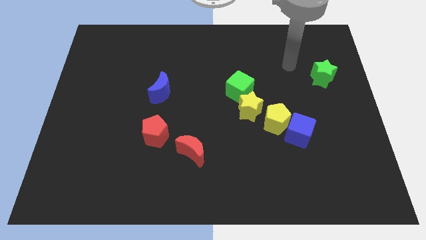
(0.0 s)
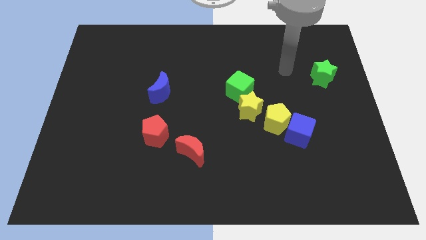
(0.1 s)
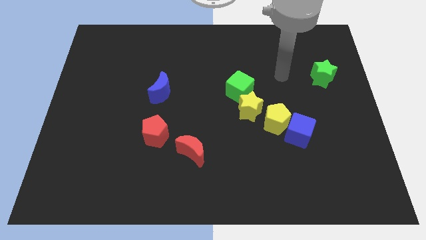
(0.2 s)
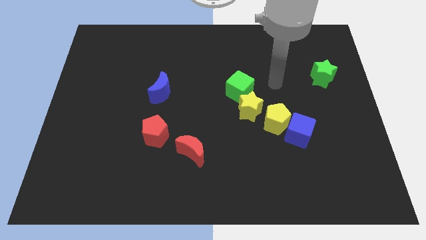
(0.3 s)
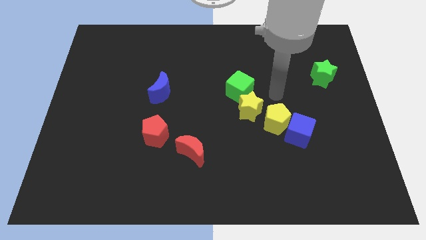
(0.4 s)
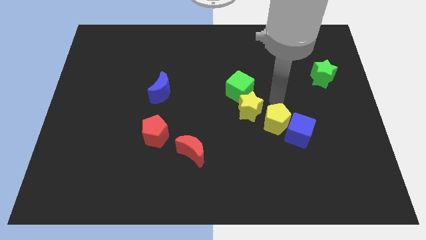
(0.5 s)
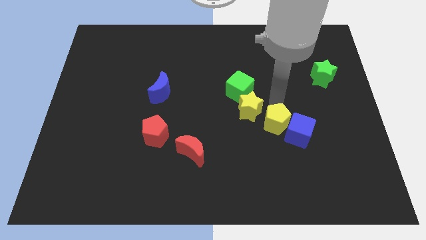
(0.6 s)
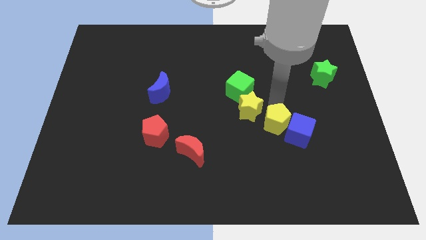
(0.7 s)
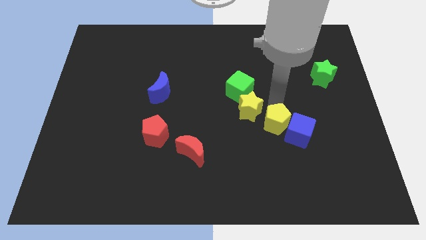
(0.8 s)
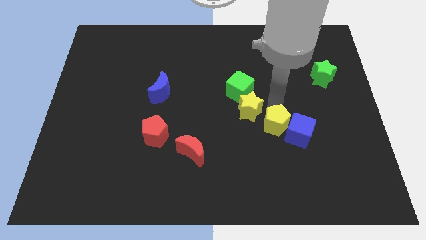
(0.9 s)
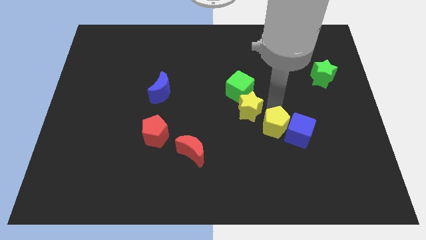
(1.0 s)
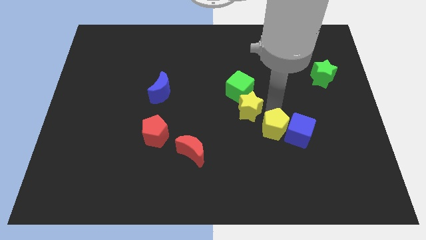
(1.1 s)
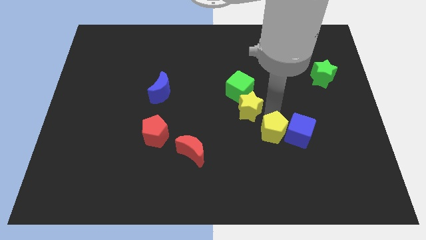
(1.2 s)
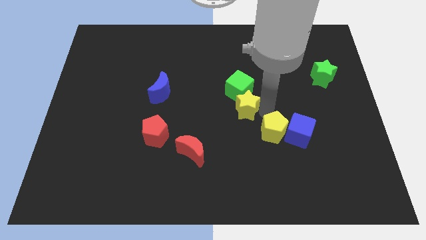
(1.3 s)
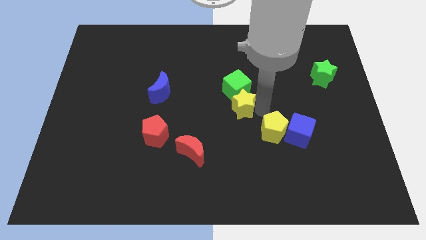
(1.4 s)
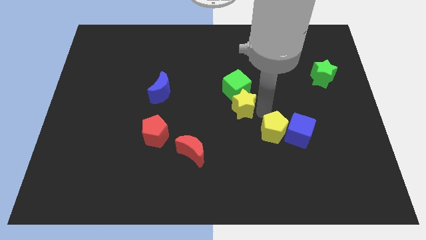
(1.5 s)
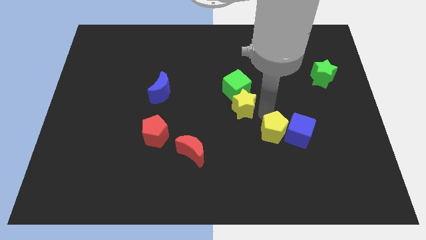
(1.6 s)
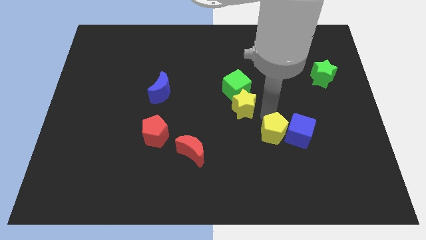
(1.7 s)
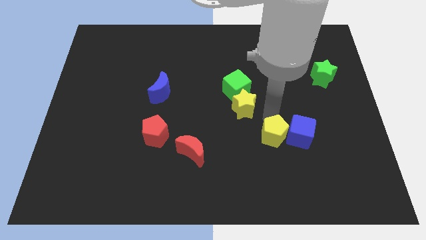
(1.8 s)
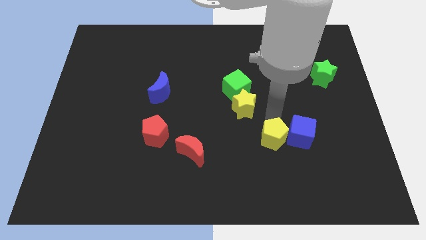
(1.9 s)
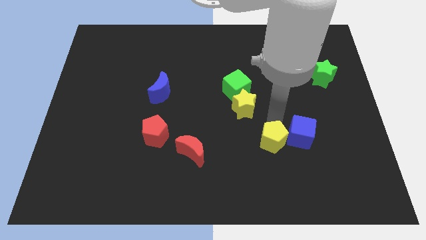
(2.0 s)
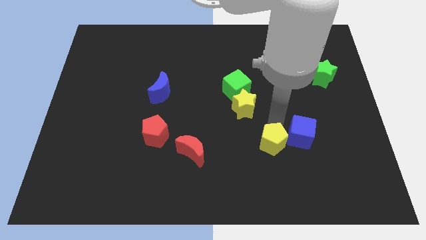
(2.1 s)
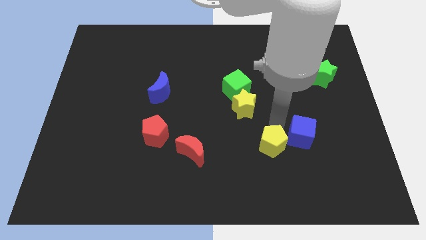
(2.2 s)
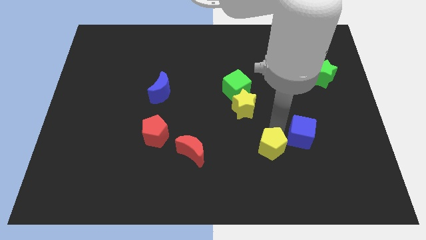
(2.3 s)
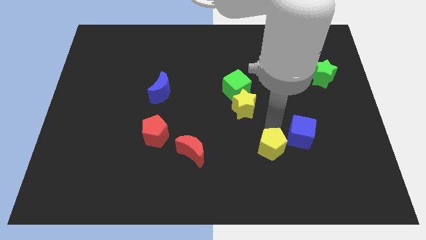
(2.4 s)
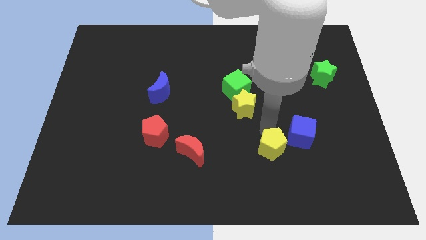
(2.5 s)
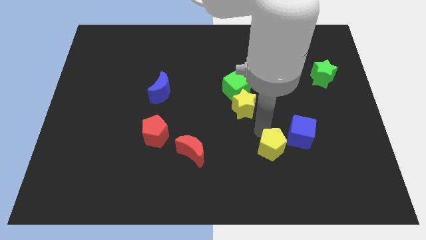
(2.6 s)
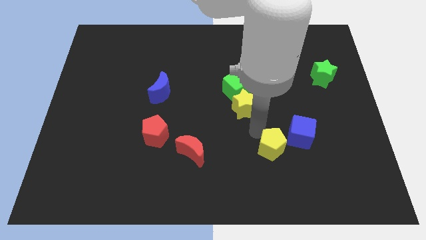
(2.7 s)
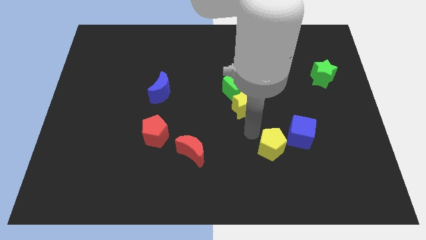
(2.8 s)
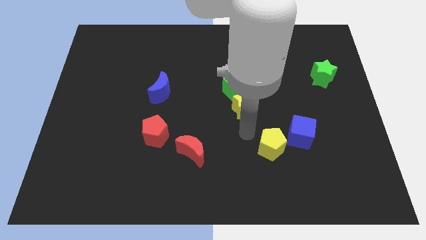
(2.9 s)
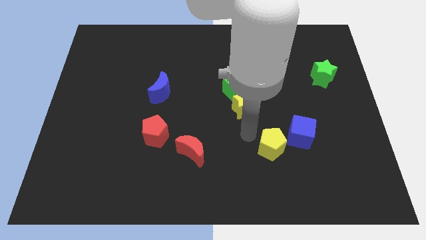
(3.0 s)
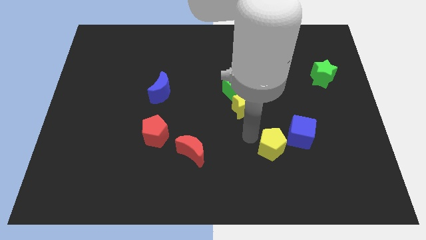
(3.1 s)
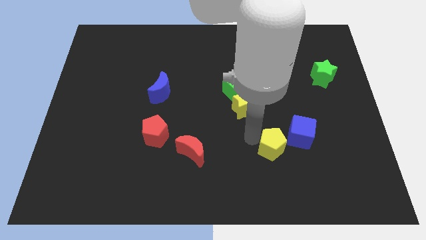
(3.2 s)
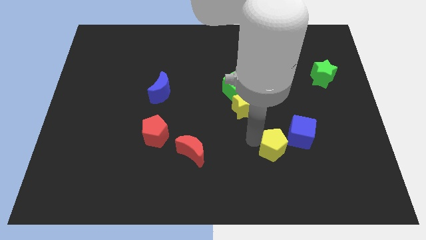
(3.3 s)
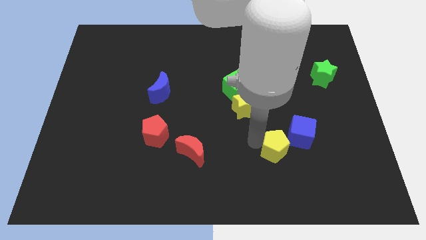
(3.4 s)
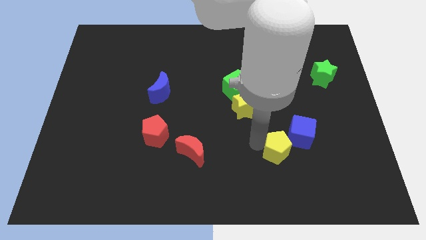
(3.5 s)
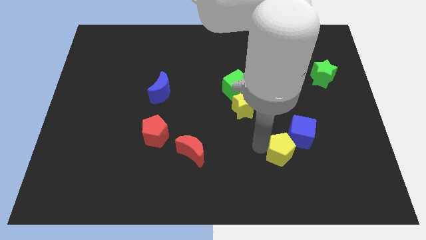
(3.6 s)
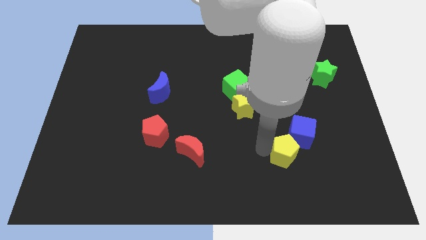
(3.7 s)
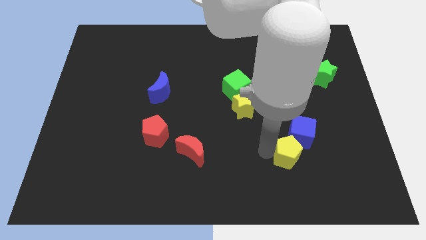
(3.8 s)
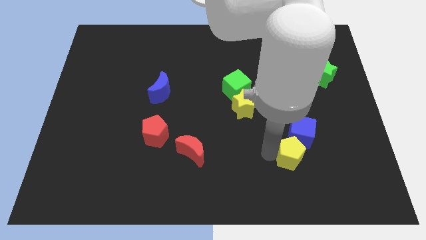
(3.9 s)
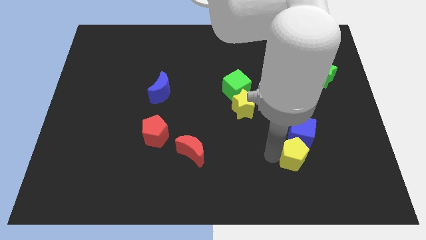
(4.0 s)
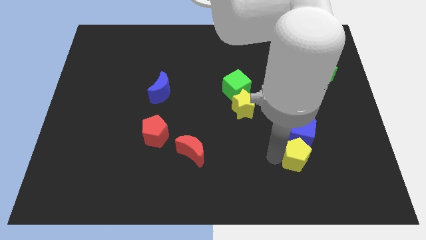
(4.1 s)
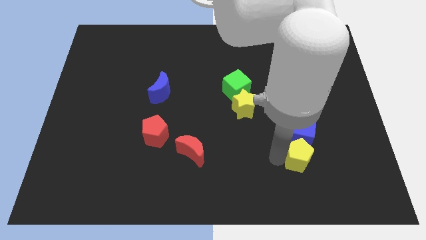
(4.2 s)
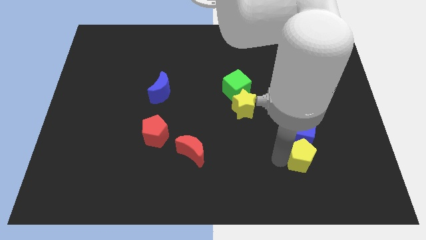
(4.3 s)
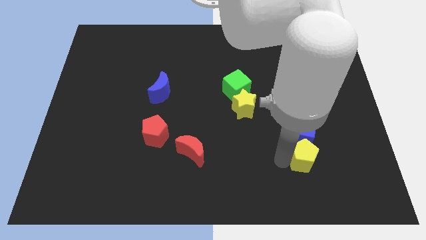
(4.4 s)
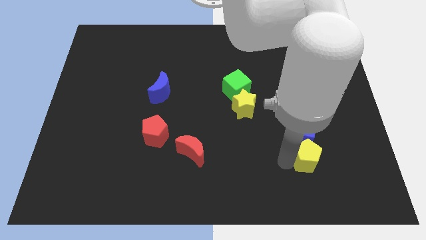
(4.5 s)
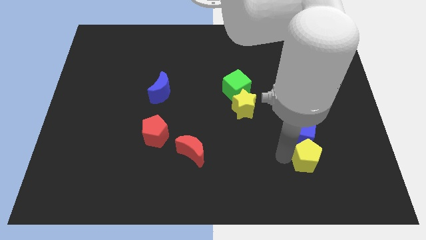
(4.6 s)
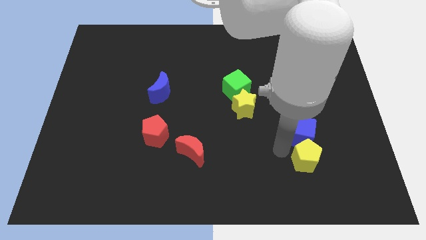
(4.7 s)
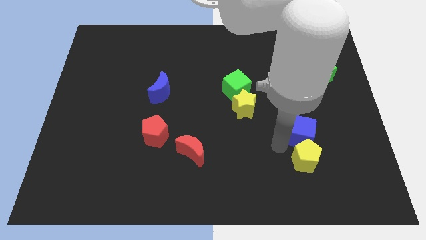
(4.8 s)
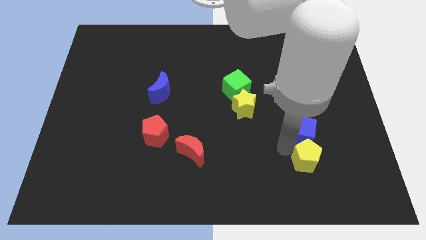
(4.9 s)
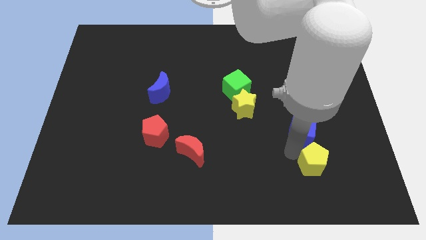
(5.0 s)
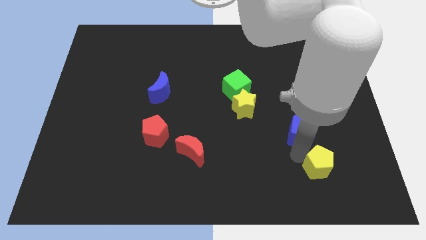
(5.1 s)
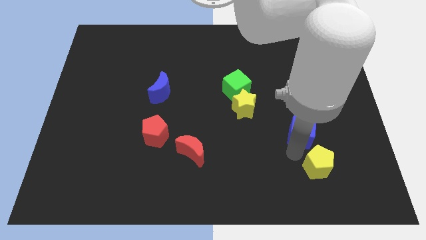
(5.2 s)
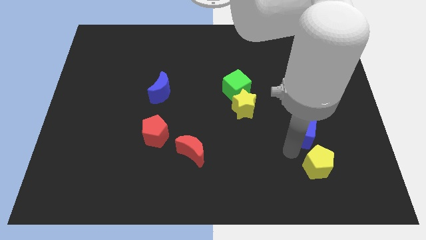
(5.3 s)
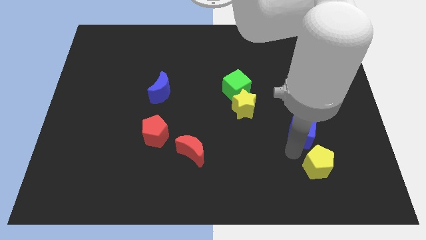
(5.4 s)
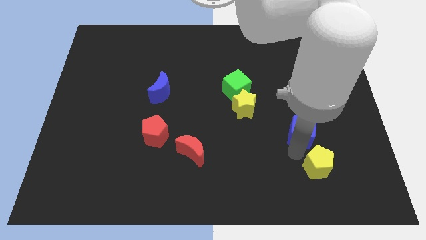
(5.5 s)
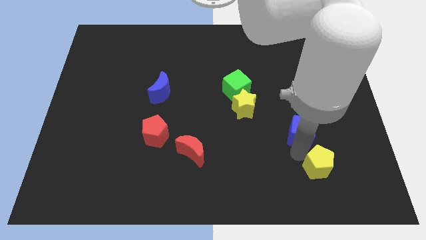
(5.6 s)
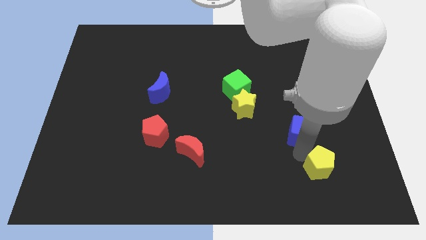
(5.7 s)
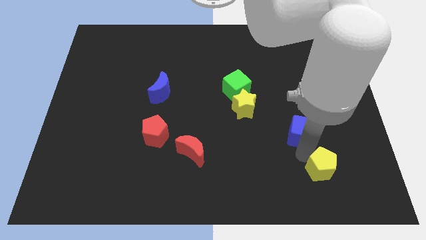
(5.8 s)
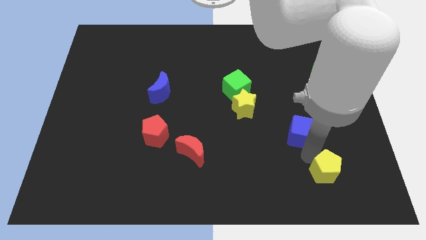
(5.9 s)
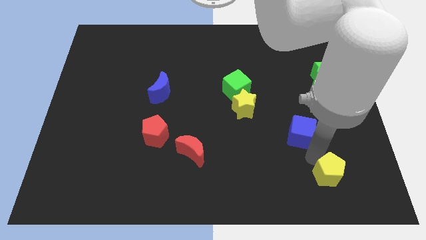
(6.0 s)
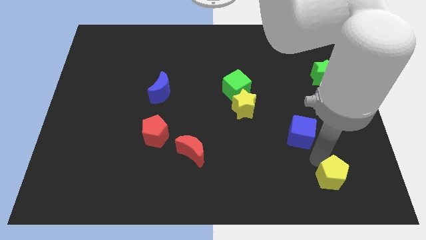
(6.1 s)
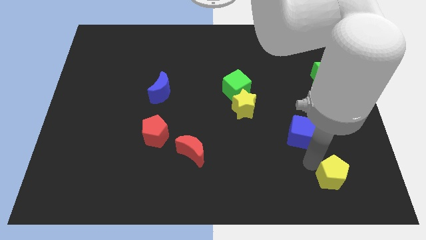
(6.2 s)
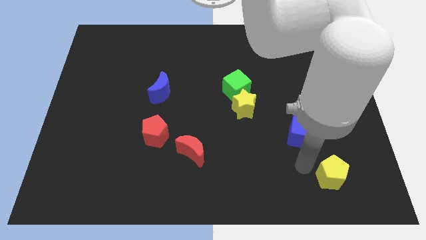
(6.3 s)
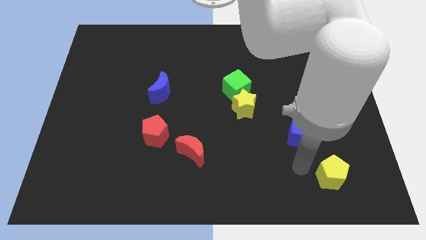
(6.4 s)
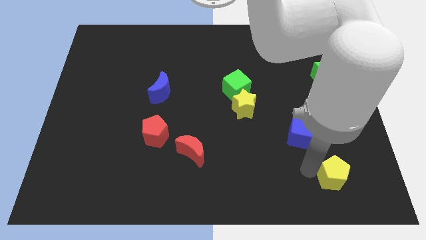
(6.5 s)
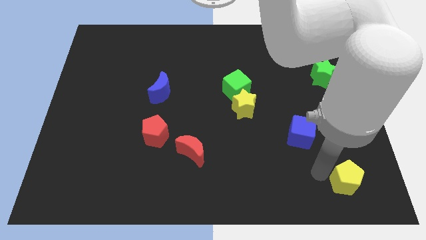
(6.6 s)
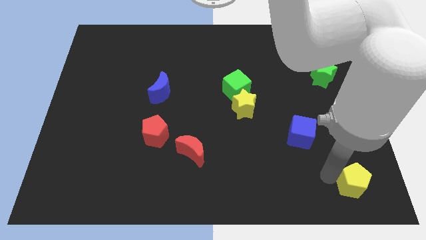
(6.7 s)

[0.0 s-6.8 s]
move the yellow pentagon to the bottom right corner
